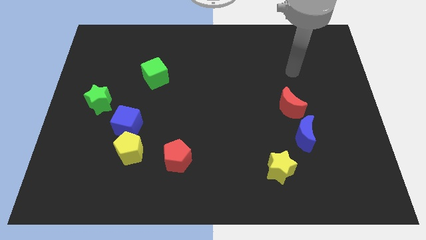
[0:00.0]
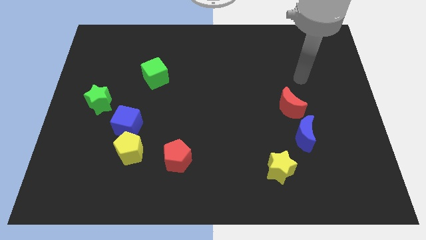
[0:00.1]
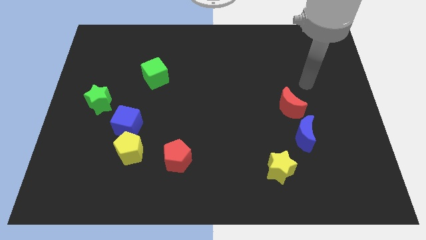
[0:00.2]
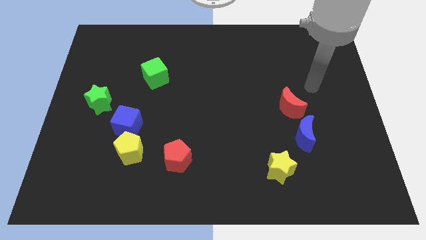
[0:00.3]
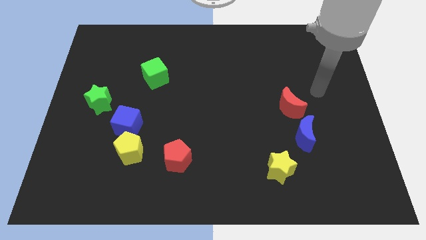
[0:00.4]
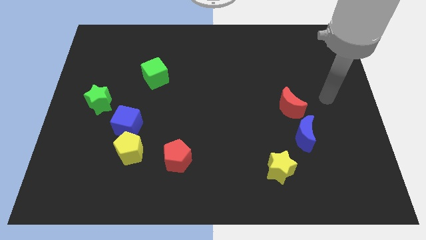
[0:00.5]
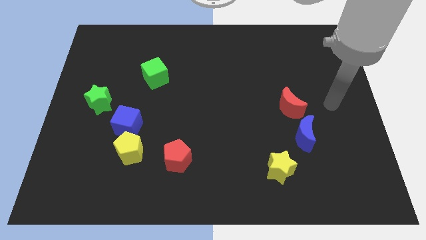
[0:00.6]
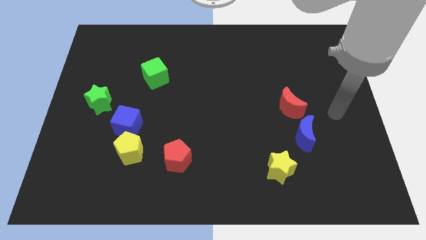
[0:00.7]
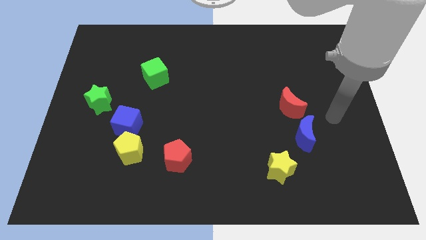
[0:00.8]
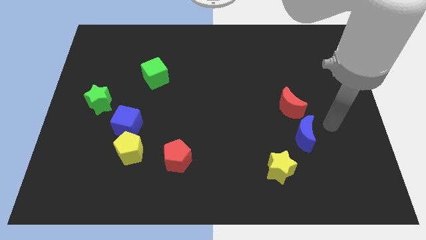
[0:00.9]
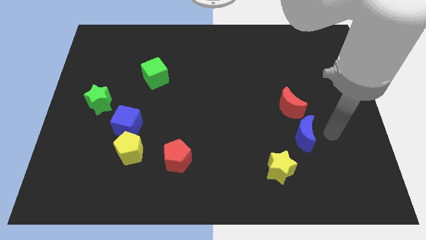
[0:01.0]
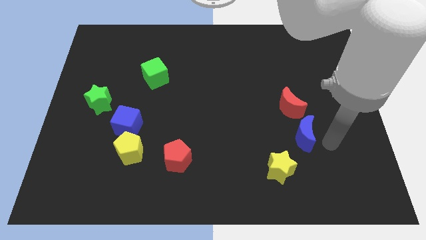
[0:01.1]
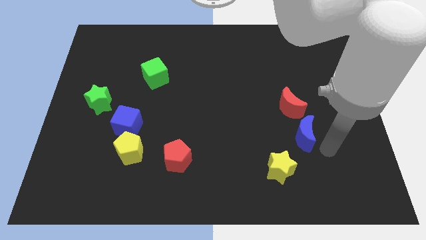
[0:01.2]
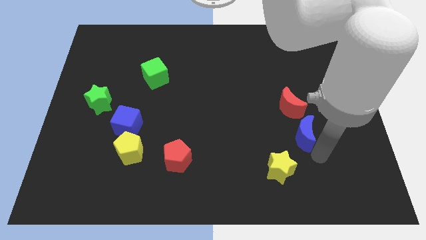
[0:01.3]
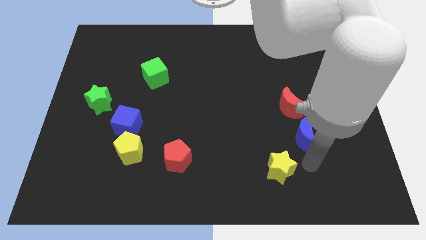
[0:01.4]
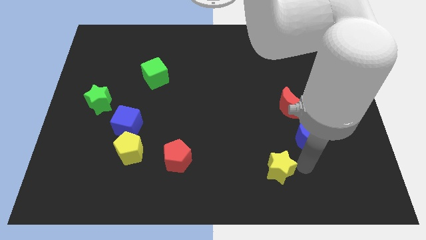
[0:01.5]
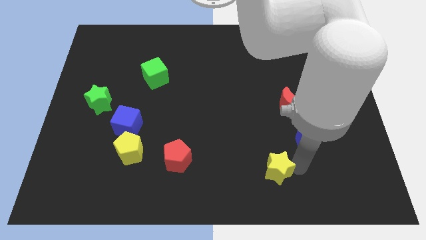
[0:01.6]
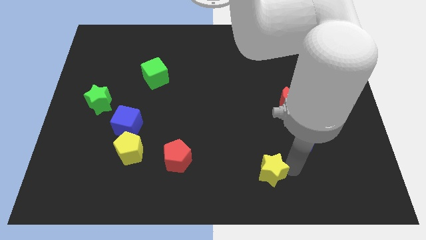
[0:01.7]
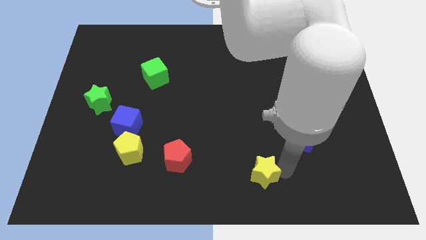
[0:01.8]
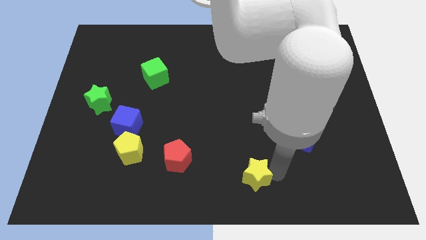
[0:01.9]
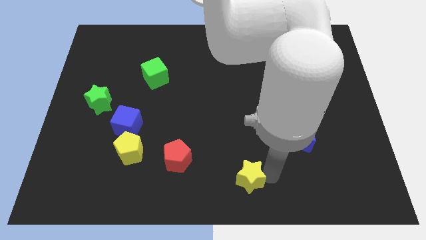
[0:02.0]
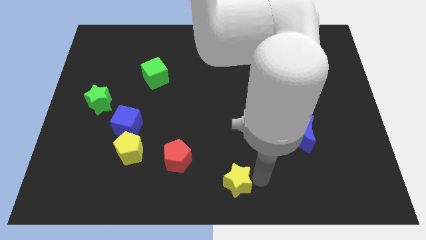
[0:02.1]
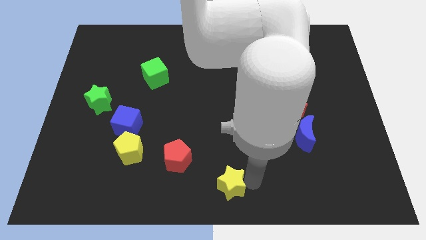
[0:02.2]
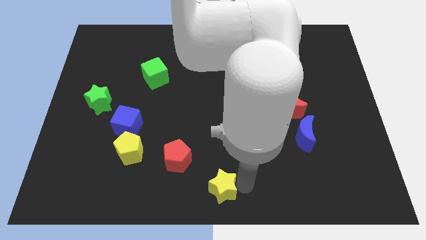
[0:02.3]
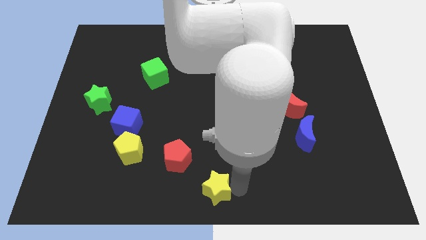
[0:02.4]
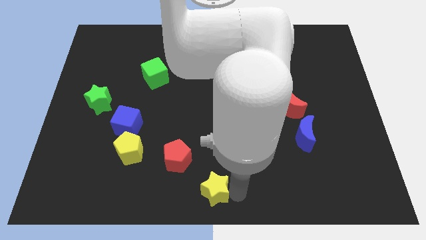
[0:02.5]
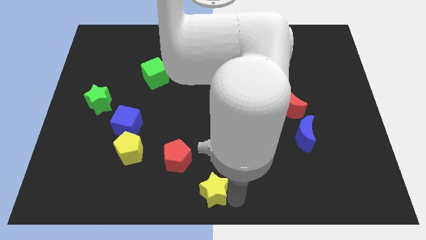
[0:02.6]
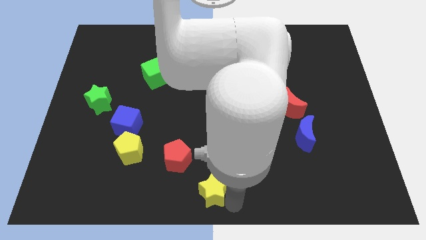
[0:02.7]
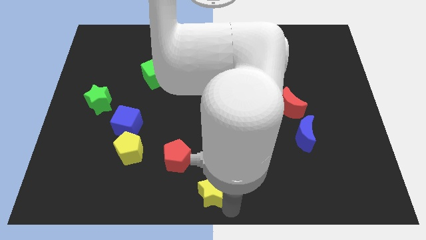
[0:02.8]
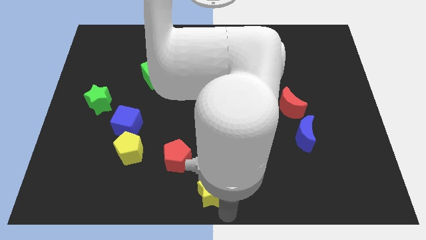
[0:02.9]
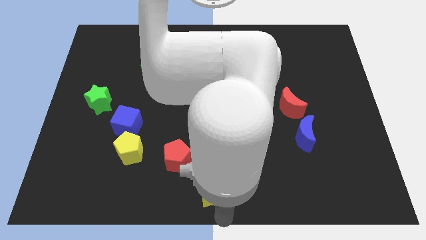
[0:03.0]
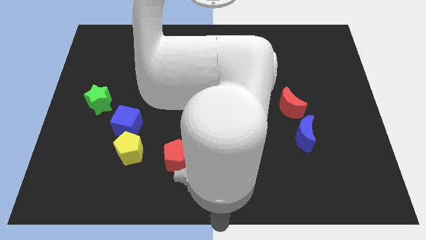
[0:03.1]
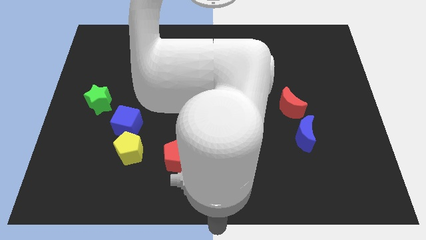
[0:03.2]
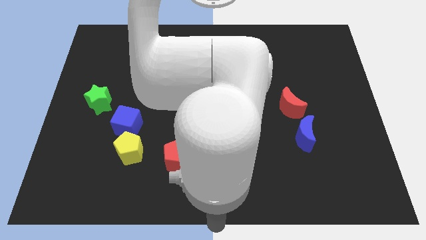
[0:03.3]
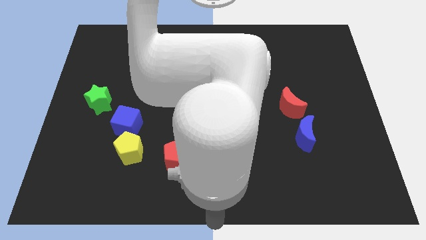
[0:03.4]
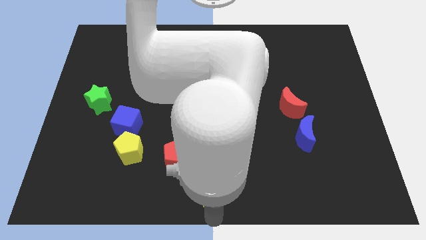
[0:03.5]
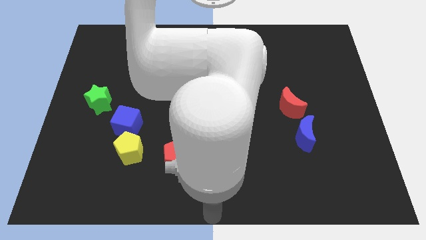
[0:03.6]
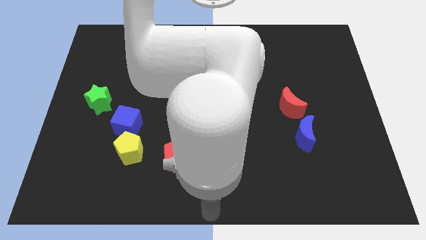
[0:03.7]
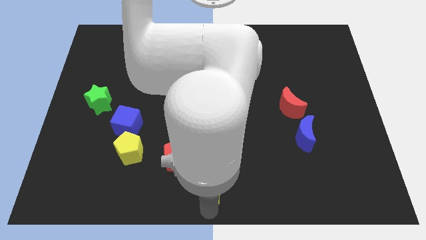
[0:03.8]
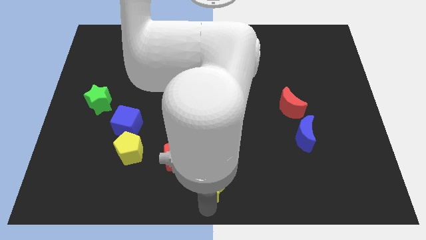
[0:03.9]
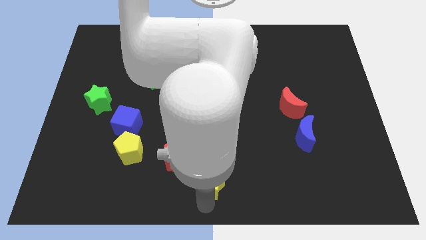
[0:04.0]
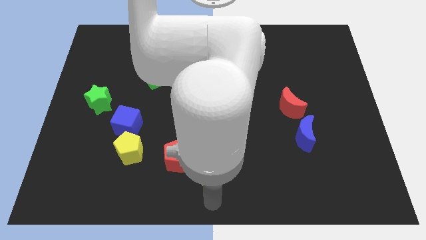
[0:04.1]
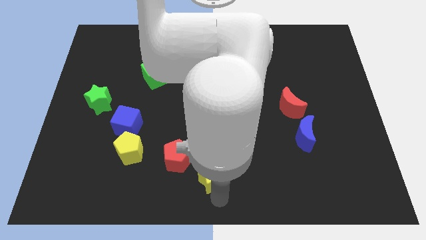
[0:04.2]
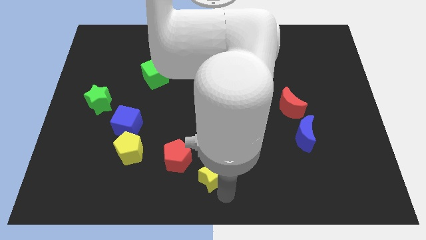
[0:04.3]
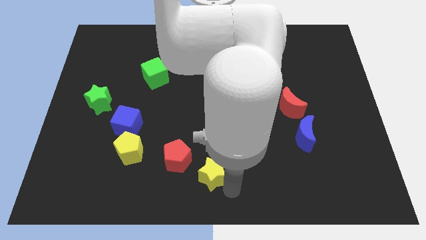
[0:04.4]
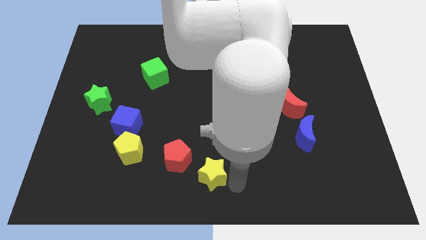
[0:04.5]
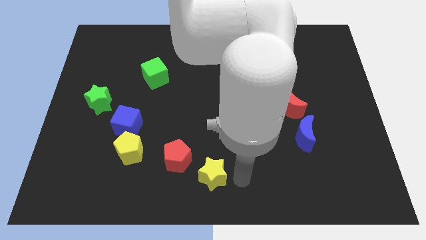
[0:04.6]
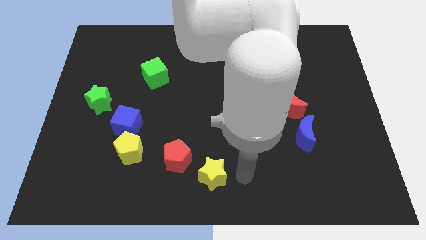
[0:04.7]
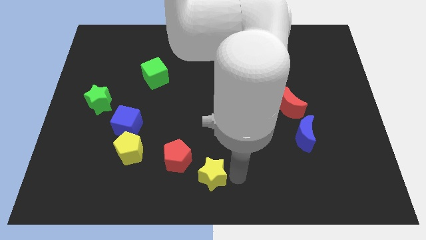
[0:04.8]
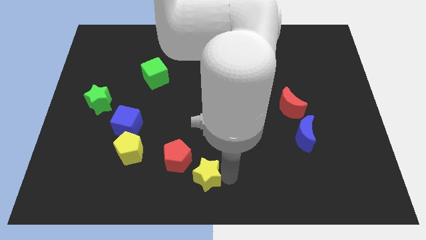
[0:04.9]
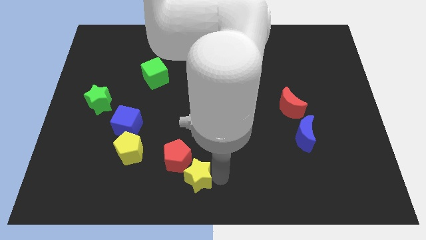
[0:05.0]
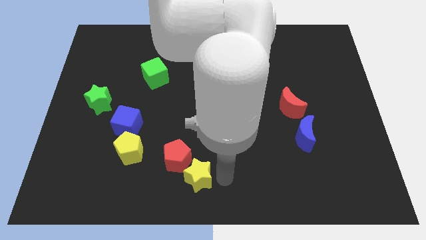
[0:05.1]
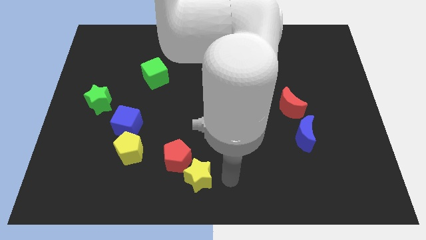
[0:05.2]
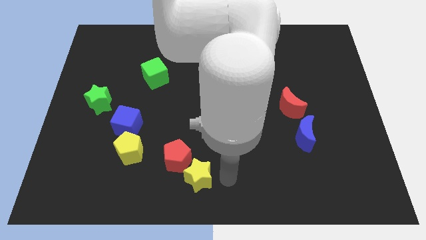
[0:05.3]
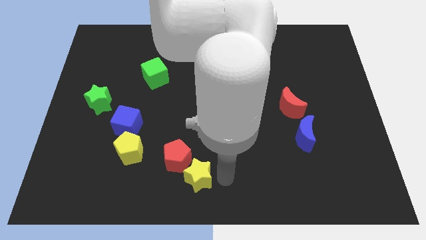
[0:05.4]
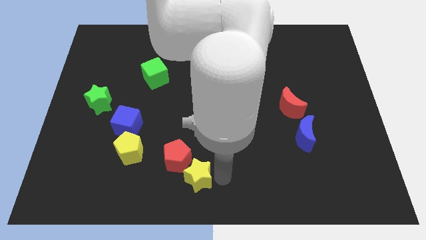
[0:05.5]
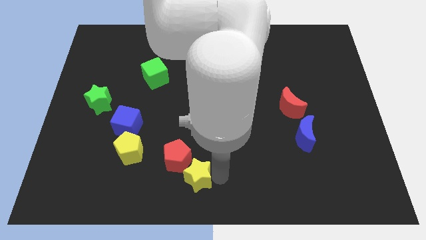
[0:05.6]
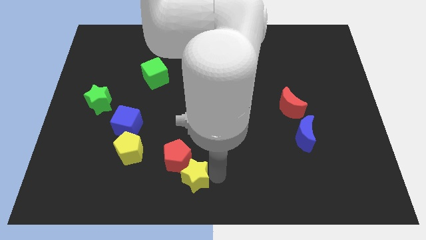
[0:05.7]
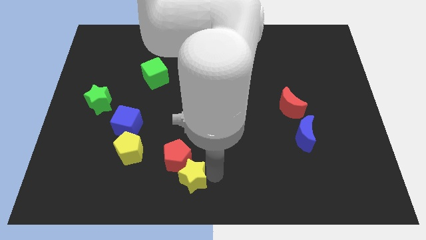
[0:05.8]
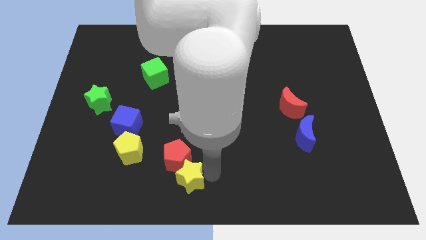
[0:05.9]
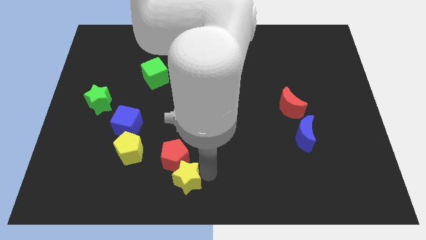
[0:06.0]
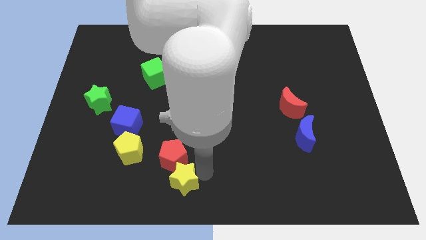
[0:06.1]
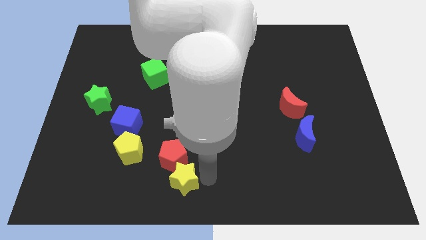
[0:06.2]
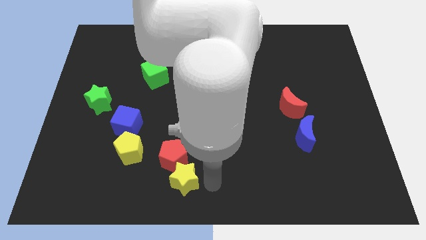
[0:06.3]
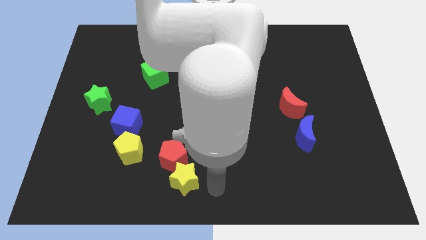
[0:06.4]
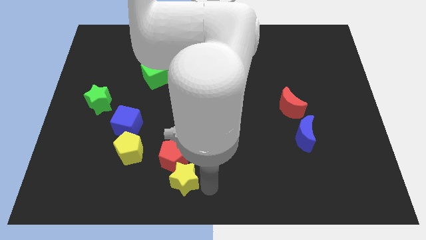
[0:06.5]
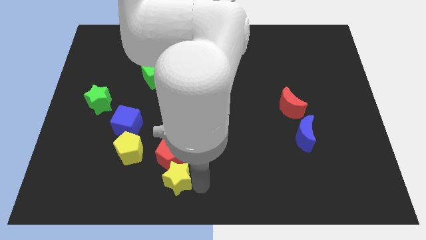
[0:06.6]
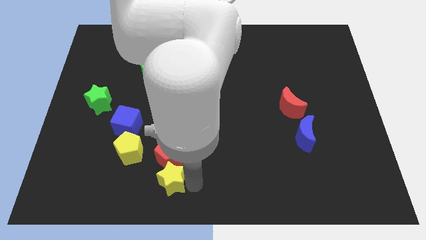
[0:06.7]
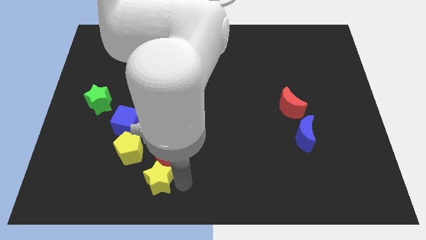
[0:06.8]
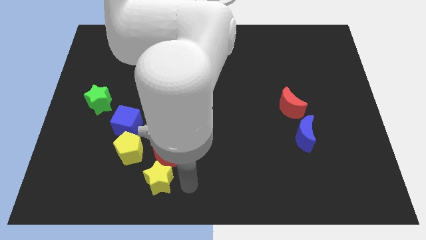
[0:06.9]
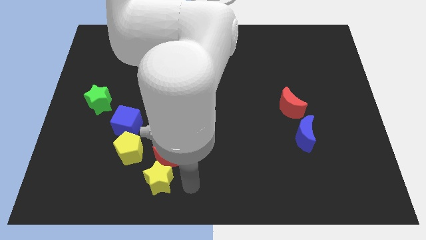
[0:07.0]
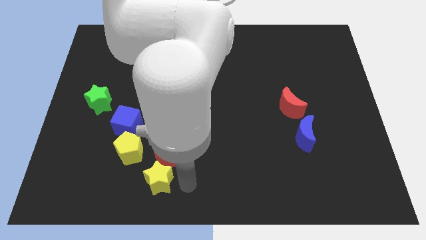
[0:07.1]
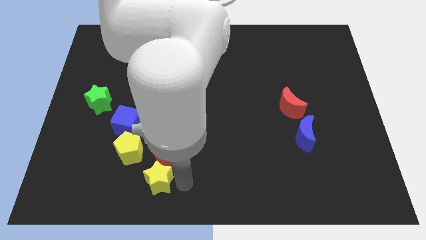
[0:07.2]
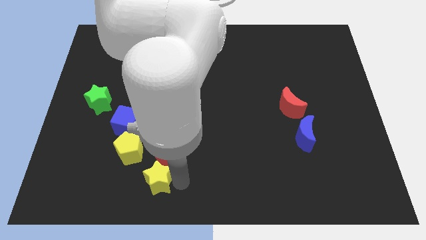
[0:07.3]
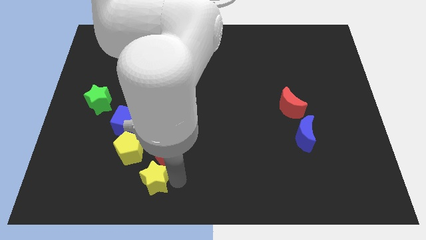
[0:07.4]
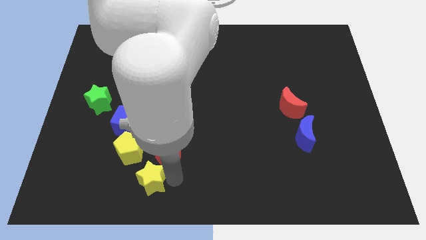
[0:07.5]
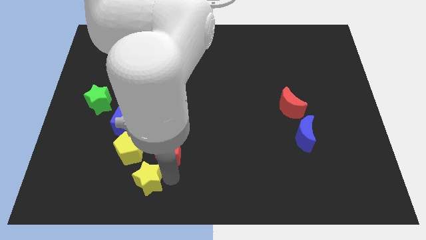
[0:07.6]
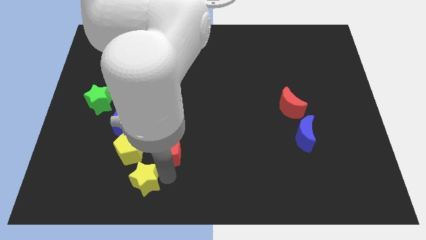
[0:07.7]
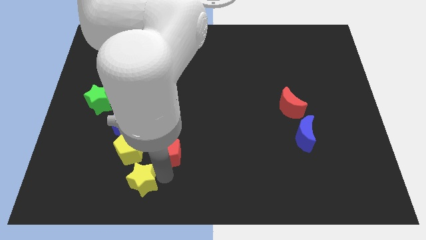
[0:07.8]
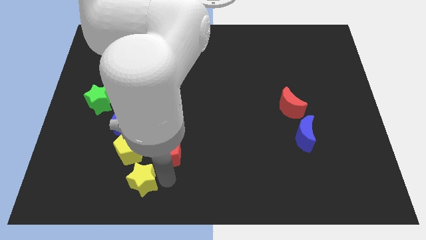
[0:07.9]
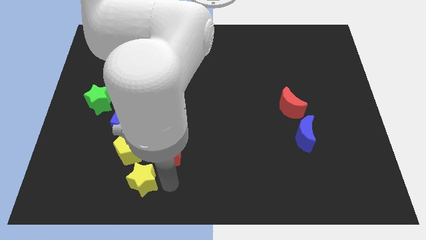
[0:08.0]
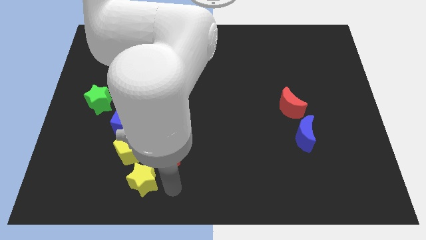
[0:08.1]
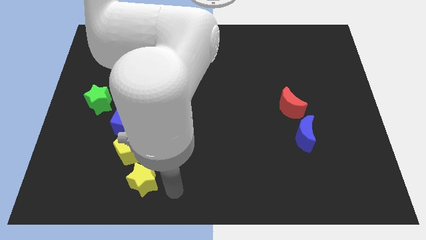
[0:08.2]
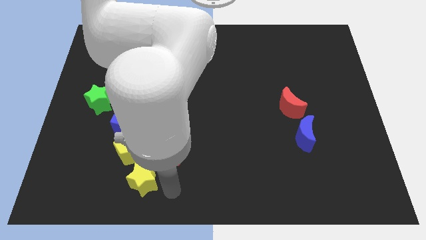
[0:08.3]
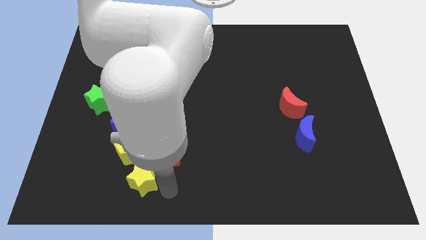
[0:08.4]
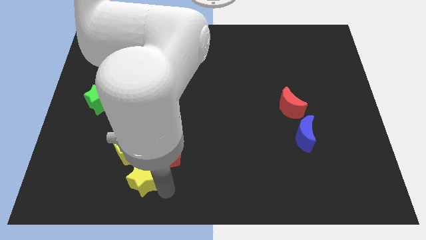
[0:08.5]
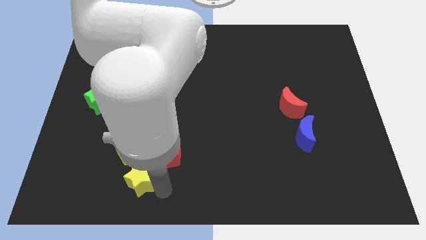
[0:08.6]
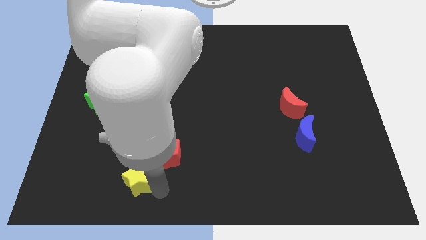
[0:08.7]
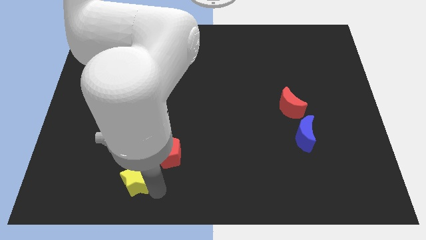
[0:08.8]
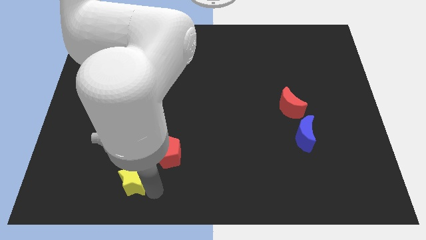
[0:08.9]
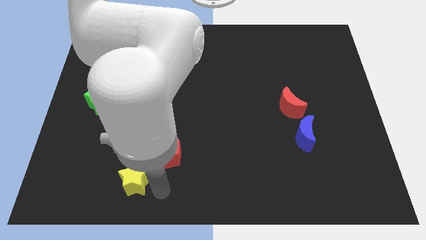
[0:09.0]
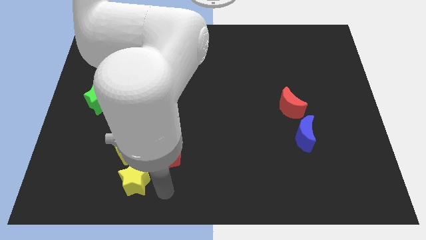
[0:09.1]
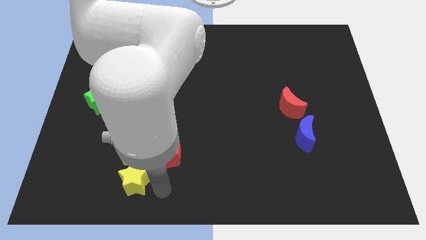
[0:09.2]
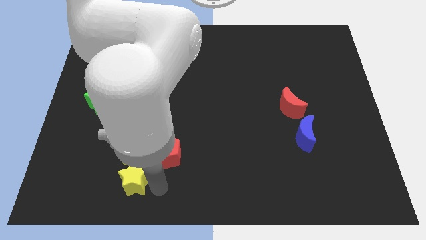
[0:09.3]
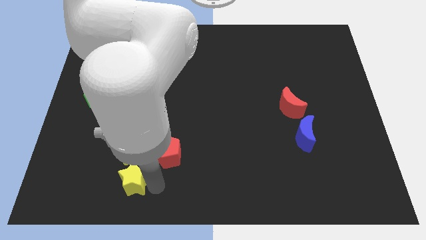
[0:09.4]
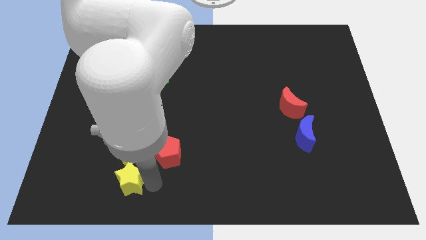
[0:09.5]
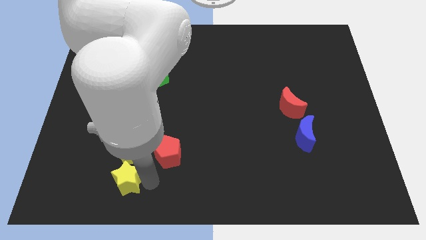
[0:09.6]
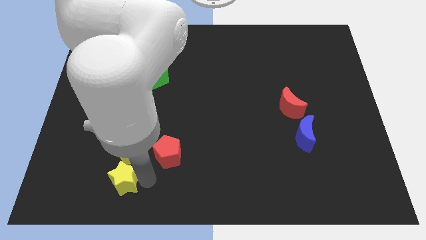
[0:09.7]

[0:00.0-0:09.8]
move the yellow star diagonally down and to the left of the yellow pentagon
